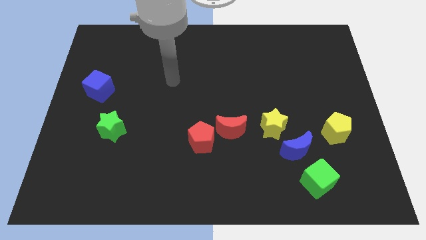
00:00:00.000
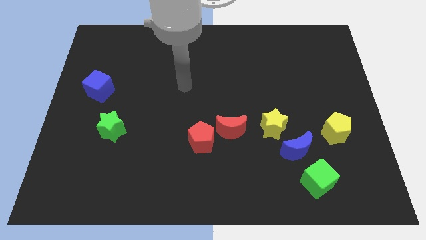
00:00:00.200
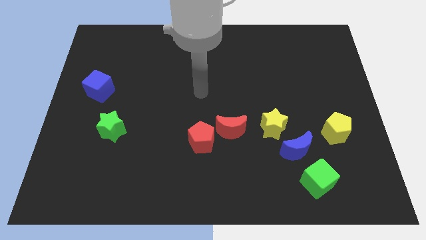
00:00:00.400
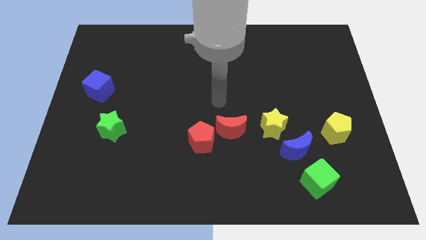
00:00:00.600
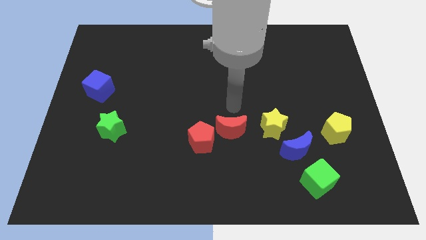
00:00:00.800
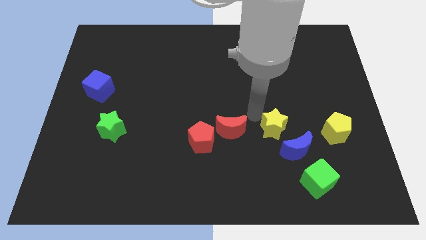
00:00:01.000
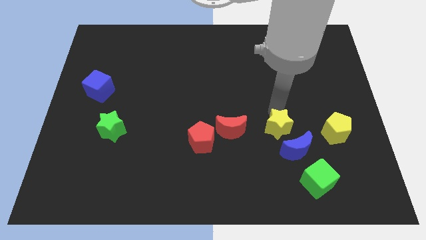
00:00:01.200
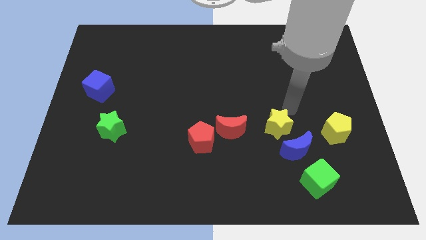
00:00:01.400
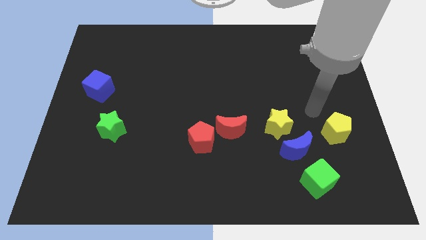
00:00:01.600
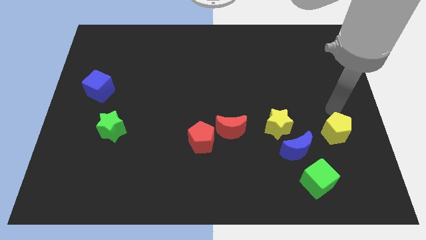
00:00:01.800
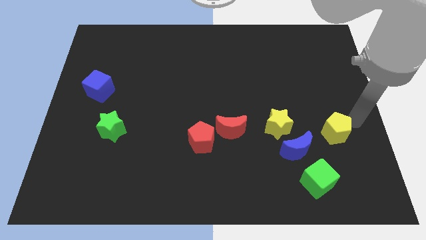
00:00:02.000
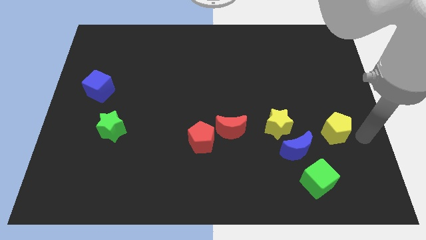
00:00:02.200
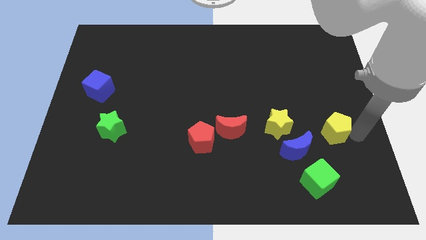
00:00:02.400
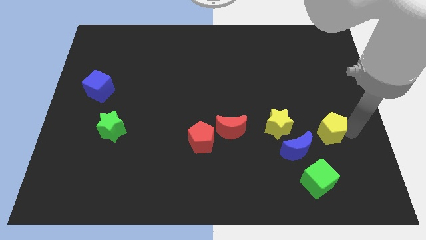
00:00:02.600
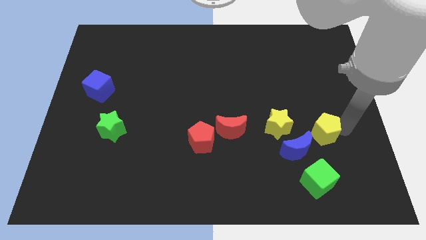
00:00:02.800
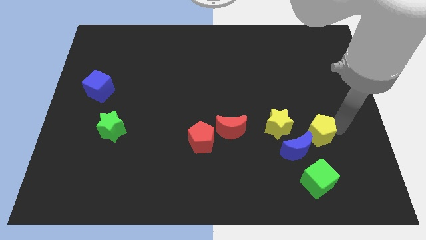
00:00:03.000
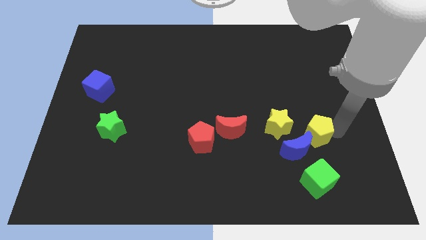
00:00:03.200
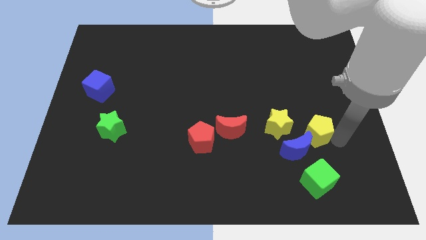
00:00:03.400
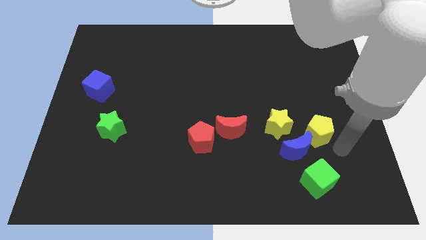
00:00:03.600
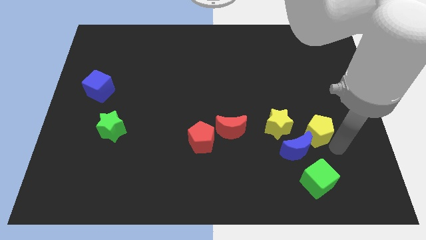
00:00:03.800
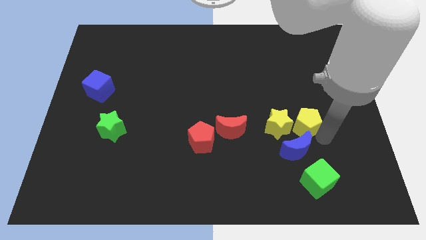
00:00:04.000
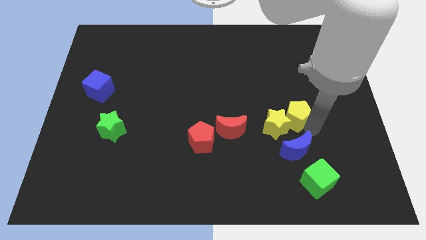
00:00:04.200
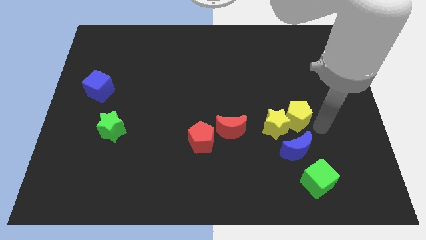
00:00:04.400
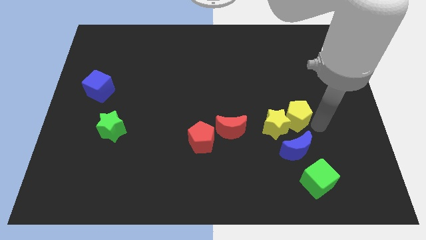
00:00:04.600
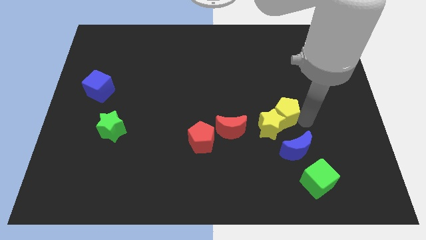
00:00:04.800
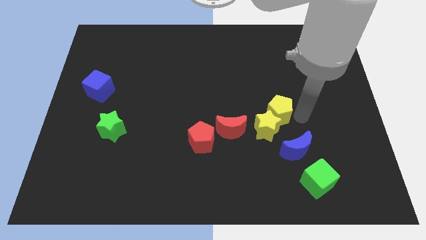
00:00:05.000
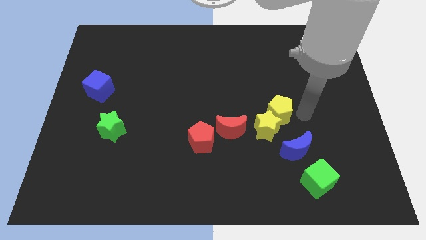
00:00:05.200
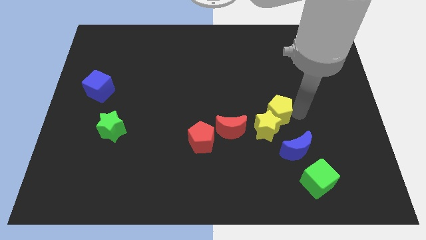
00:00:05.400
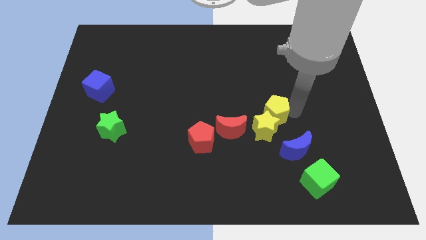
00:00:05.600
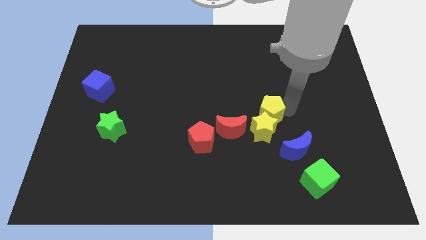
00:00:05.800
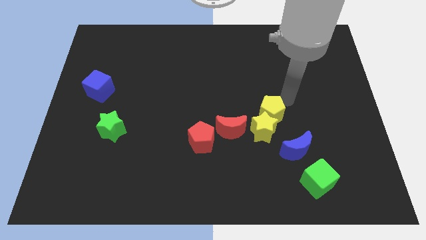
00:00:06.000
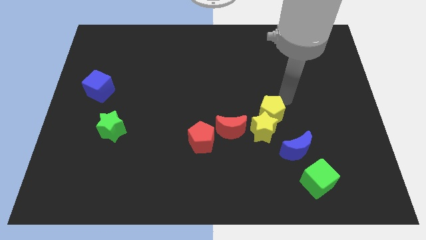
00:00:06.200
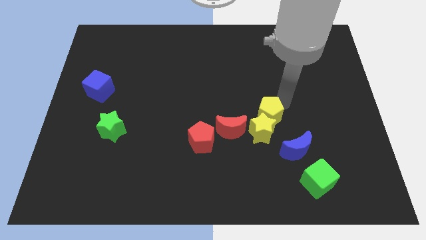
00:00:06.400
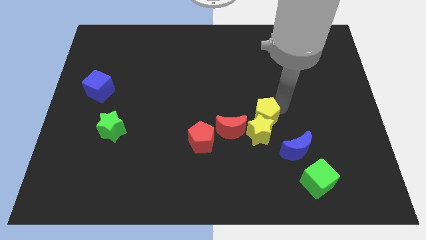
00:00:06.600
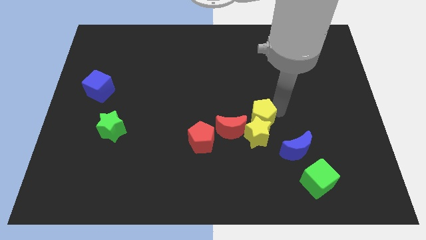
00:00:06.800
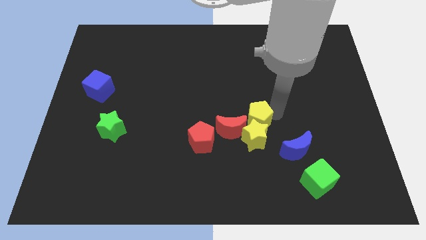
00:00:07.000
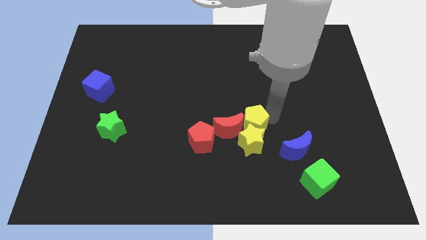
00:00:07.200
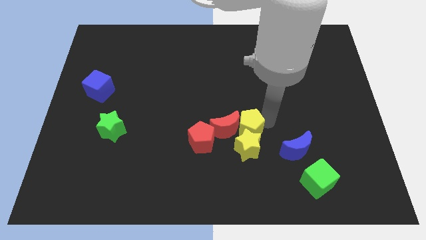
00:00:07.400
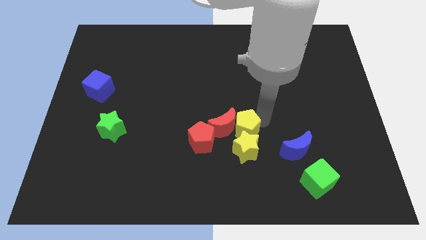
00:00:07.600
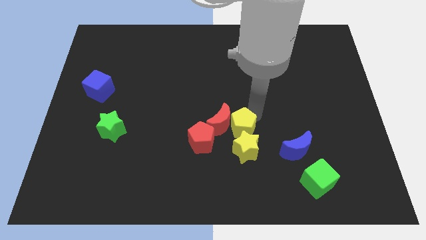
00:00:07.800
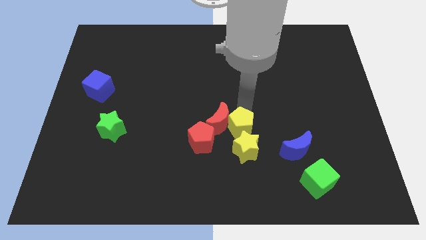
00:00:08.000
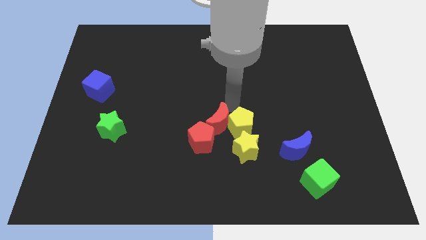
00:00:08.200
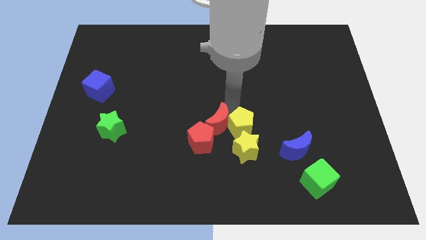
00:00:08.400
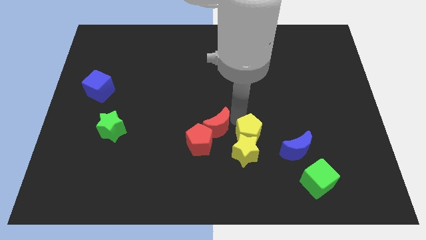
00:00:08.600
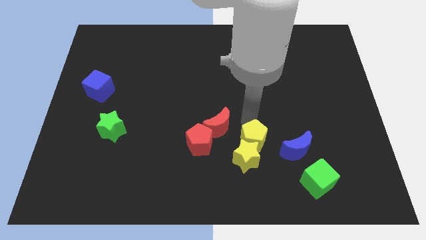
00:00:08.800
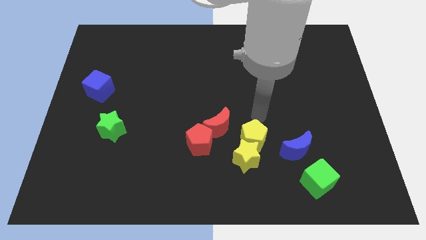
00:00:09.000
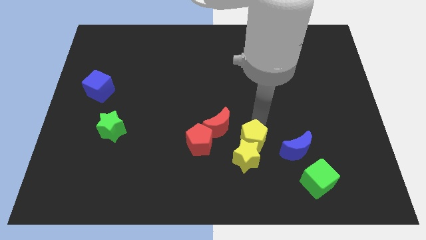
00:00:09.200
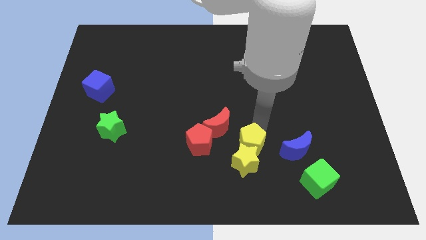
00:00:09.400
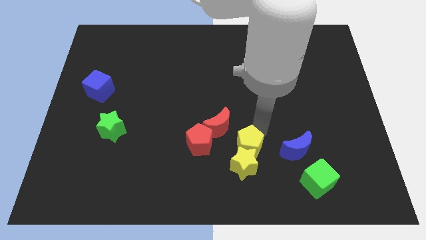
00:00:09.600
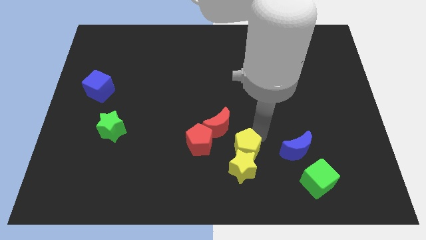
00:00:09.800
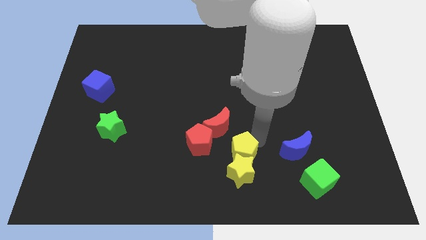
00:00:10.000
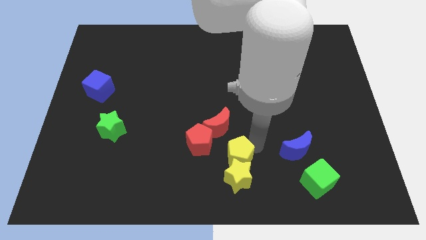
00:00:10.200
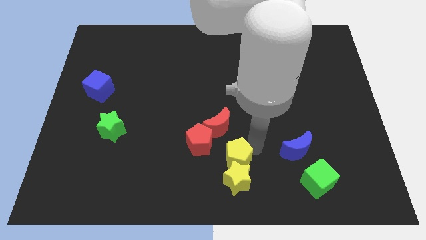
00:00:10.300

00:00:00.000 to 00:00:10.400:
push the yellow pentagon to the bottom
